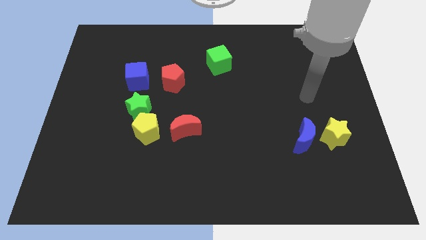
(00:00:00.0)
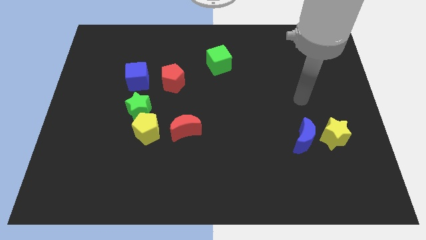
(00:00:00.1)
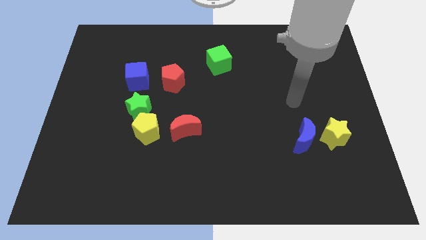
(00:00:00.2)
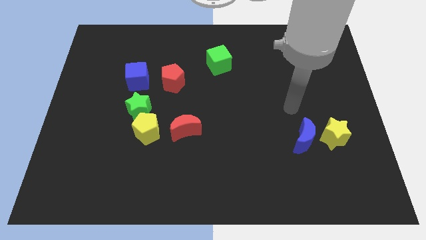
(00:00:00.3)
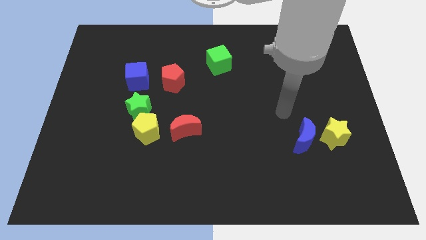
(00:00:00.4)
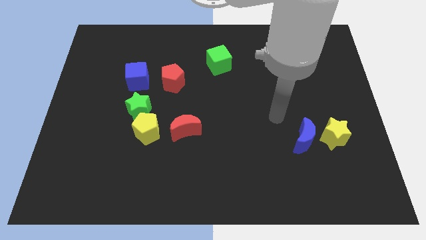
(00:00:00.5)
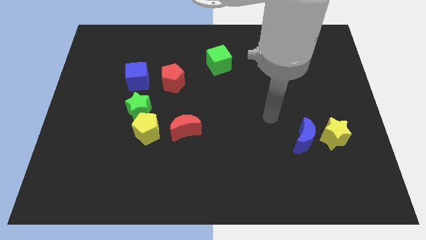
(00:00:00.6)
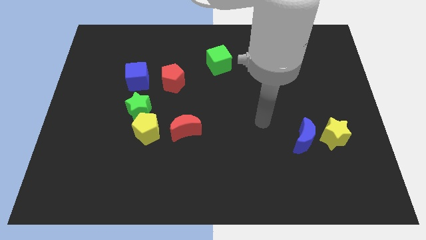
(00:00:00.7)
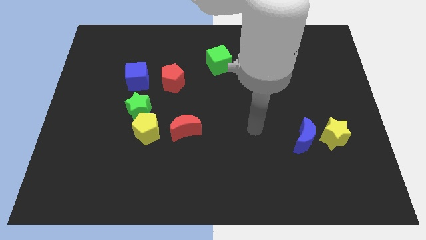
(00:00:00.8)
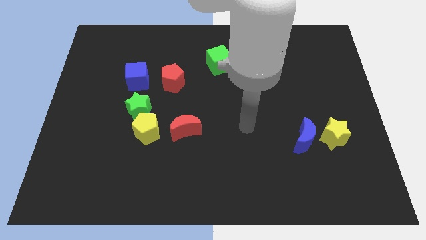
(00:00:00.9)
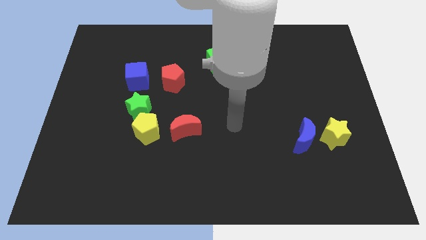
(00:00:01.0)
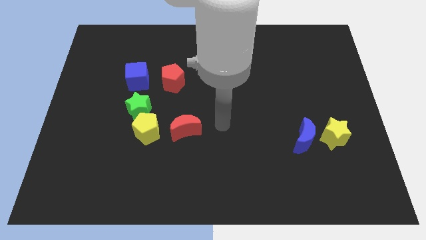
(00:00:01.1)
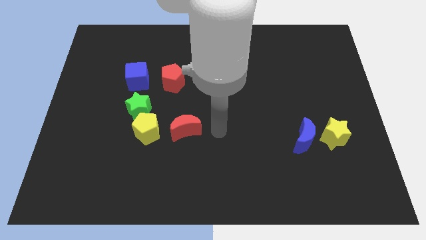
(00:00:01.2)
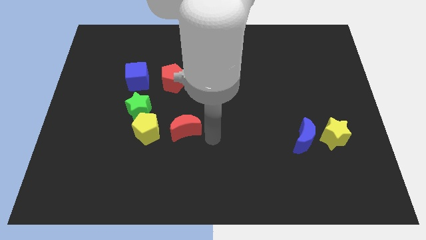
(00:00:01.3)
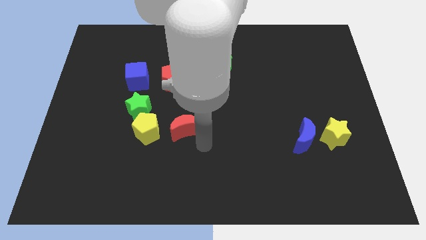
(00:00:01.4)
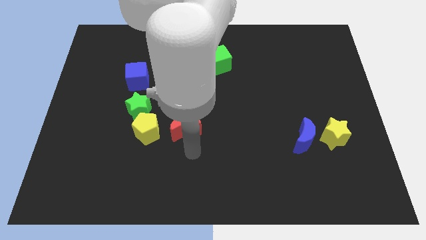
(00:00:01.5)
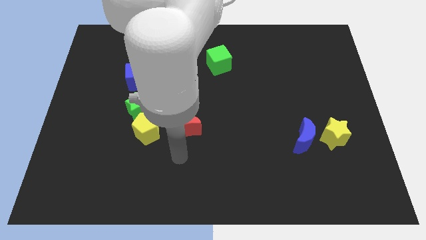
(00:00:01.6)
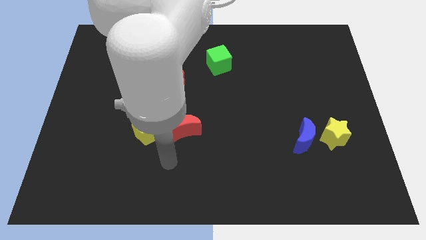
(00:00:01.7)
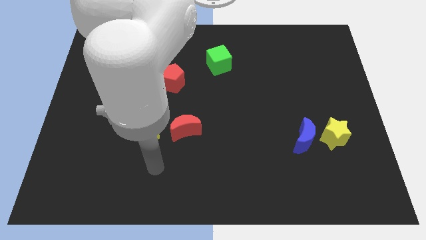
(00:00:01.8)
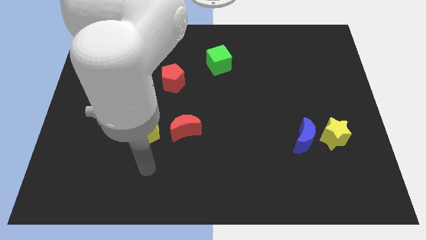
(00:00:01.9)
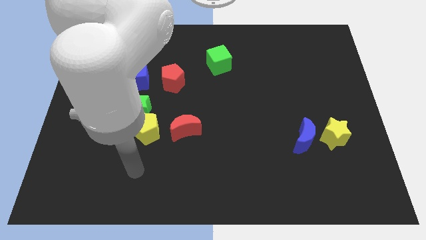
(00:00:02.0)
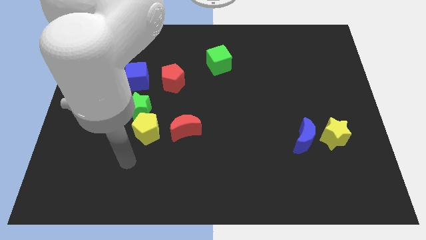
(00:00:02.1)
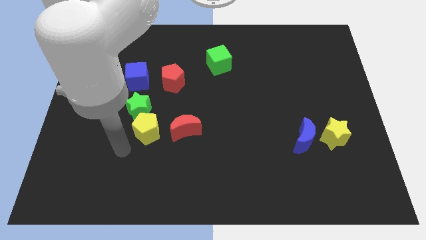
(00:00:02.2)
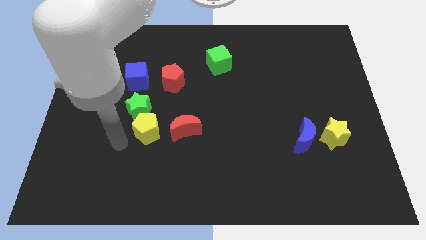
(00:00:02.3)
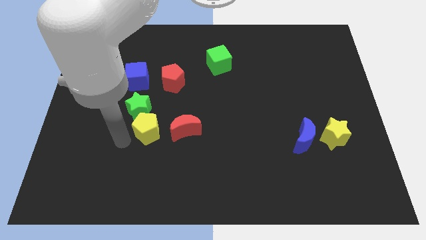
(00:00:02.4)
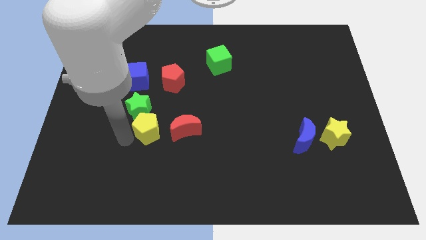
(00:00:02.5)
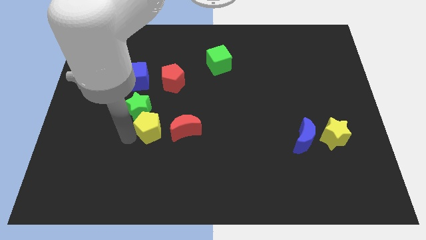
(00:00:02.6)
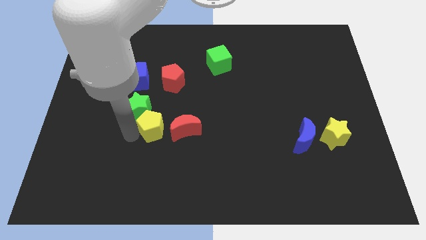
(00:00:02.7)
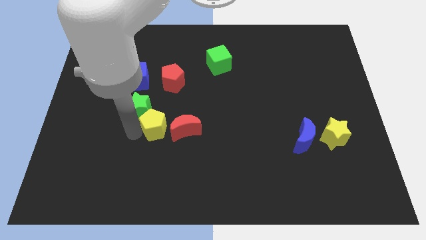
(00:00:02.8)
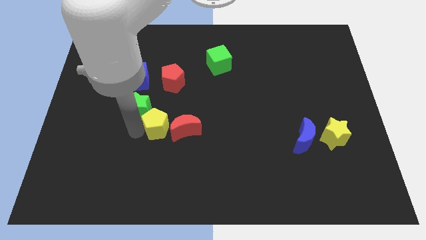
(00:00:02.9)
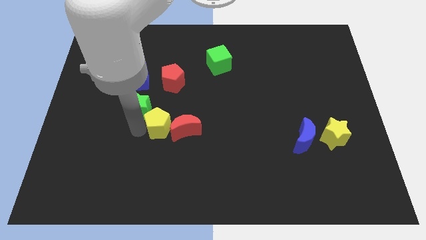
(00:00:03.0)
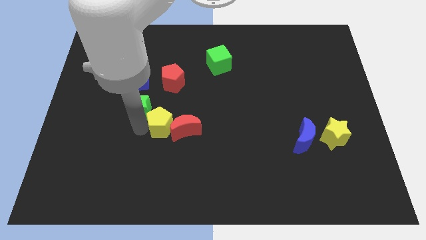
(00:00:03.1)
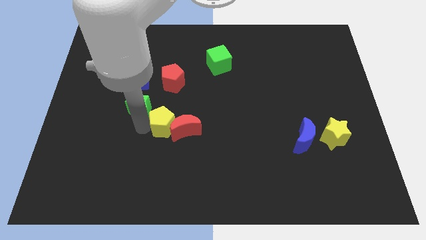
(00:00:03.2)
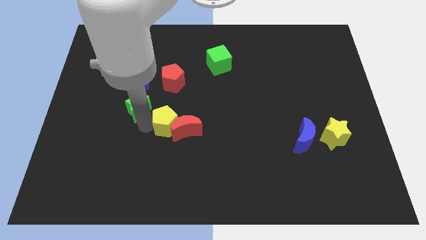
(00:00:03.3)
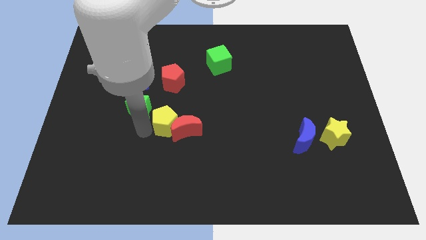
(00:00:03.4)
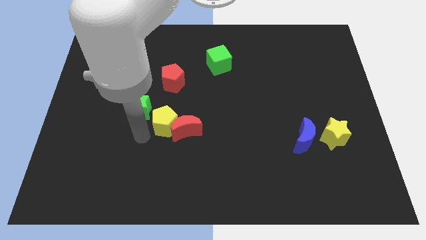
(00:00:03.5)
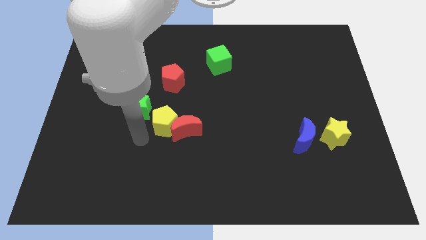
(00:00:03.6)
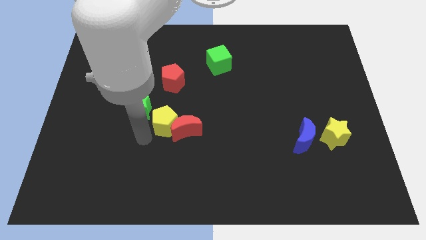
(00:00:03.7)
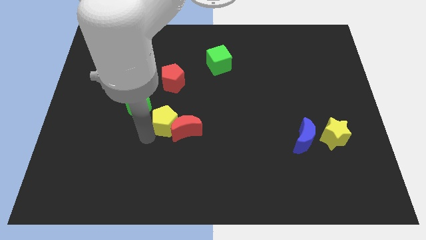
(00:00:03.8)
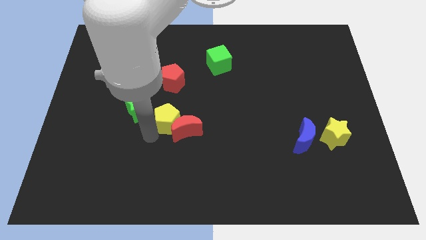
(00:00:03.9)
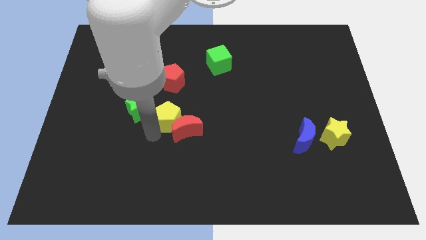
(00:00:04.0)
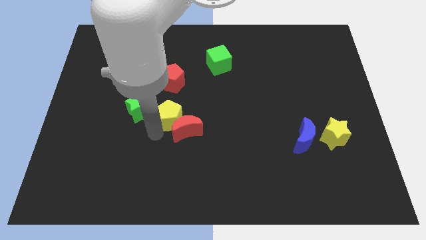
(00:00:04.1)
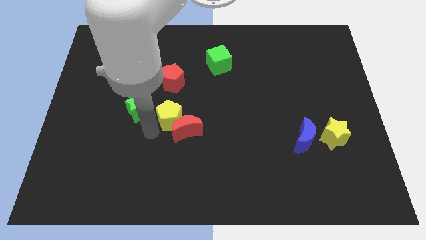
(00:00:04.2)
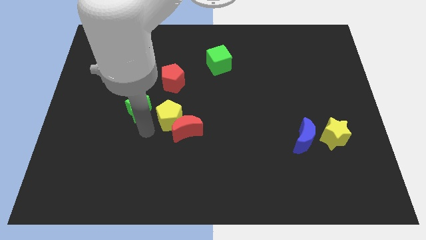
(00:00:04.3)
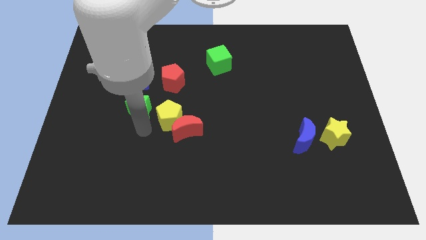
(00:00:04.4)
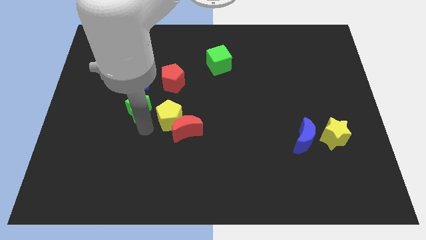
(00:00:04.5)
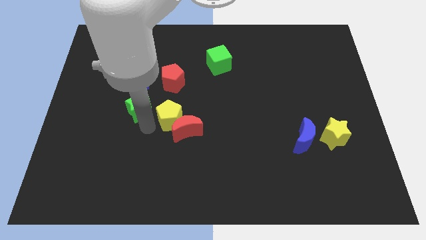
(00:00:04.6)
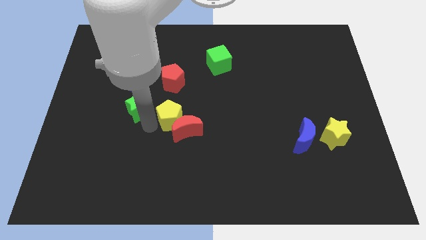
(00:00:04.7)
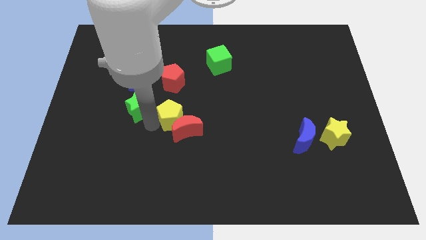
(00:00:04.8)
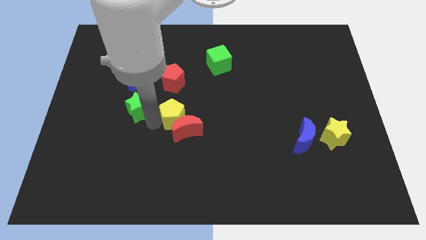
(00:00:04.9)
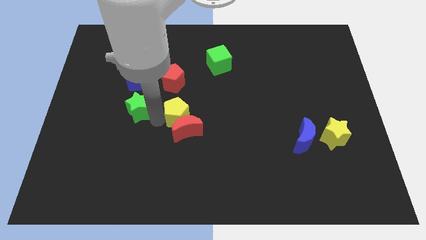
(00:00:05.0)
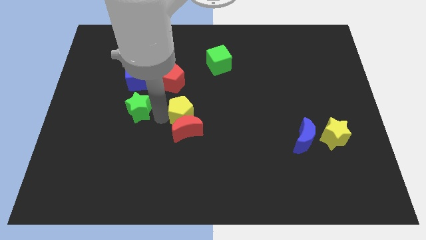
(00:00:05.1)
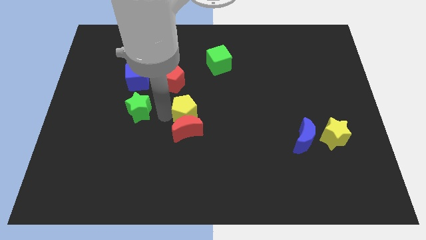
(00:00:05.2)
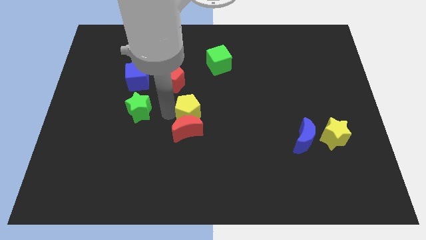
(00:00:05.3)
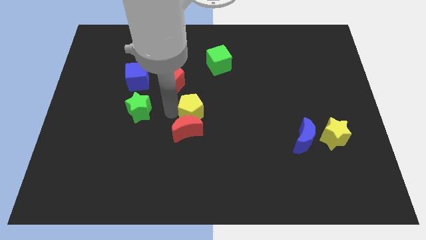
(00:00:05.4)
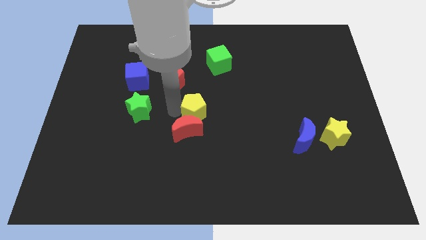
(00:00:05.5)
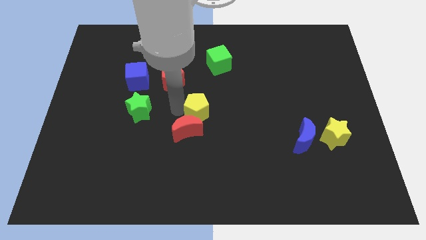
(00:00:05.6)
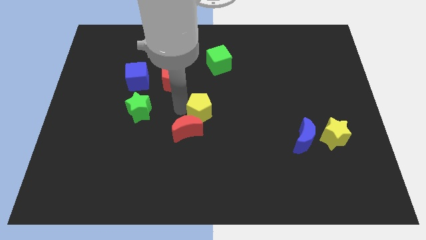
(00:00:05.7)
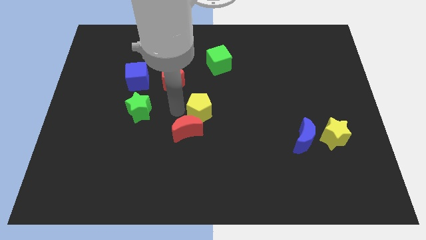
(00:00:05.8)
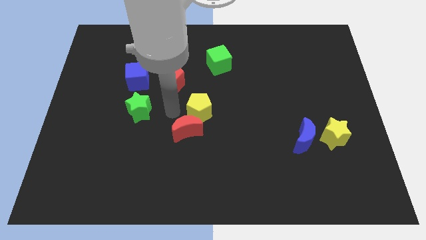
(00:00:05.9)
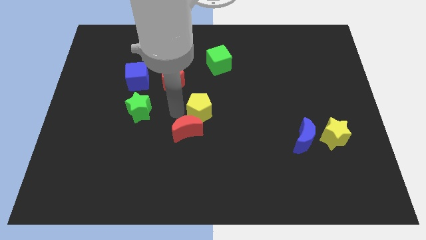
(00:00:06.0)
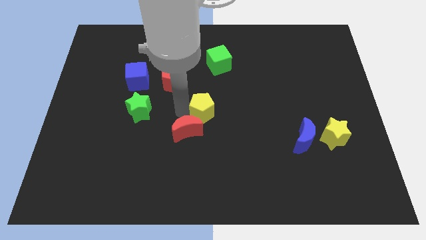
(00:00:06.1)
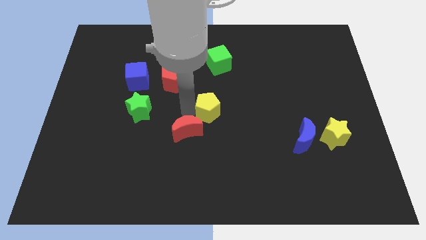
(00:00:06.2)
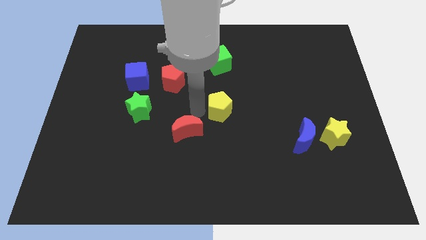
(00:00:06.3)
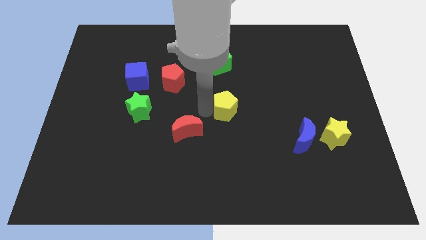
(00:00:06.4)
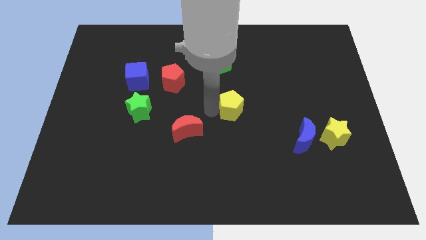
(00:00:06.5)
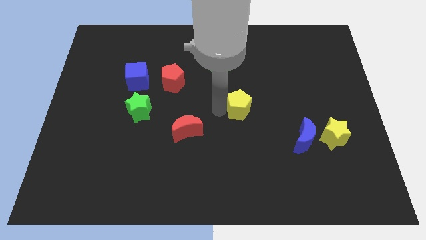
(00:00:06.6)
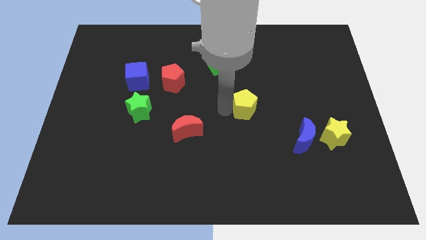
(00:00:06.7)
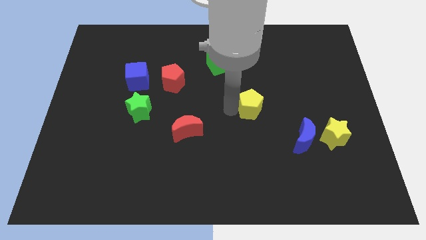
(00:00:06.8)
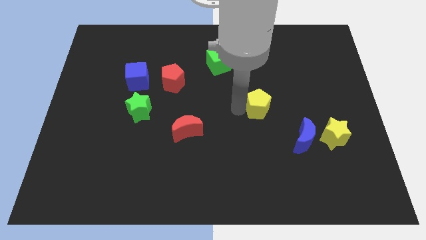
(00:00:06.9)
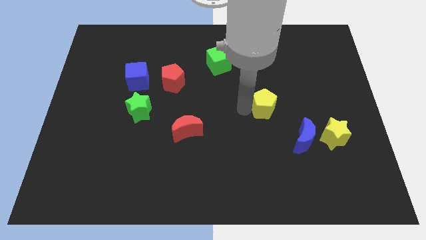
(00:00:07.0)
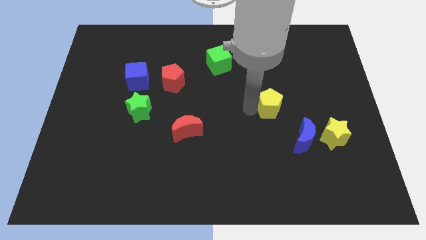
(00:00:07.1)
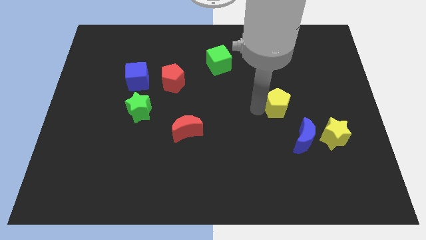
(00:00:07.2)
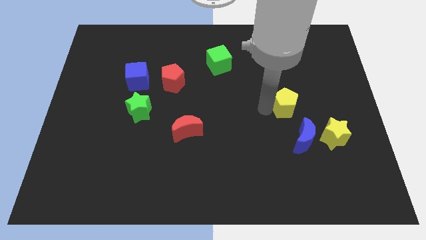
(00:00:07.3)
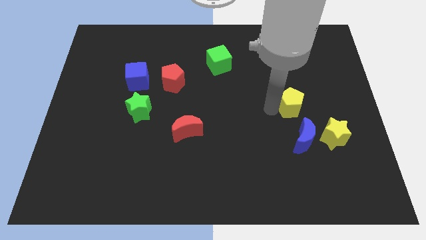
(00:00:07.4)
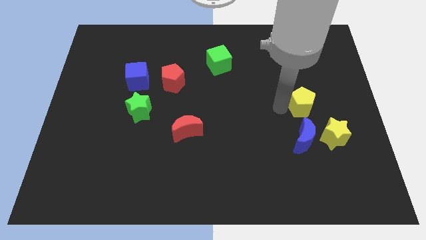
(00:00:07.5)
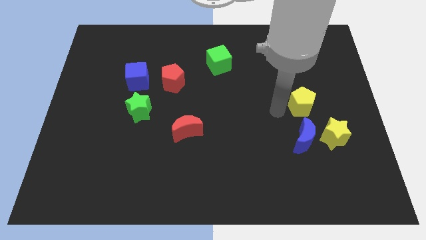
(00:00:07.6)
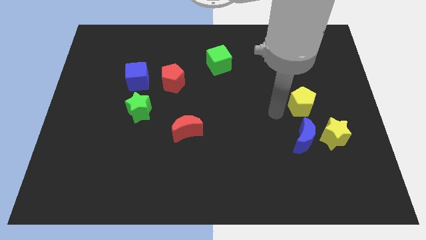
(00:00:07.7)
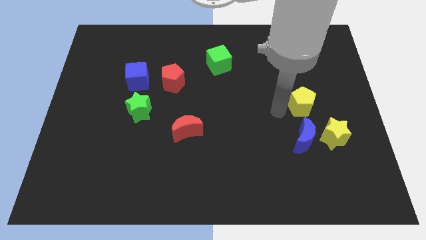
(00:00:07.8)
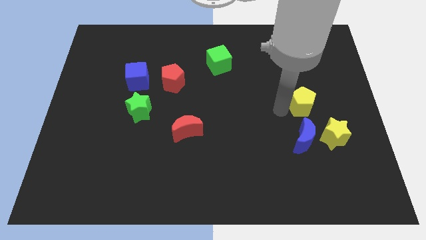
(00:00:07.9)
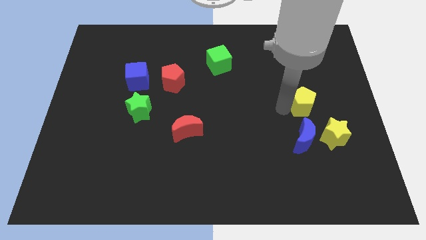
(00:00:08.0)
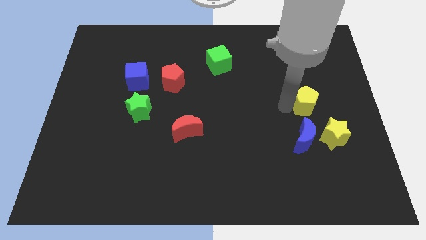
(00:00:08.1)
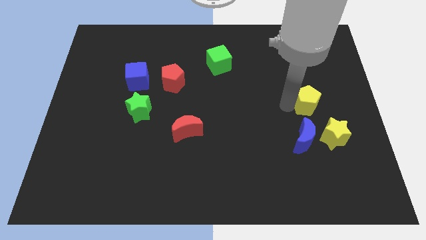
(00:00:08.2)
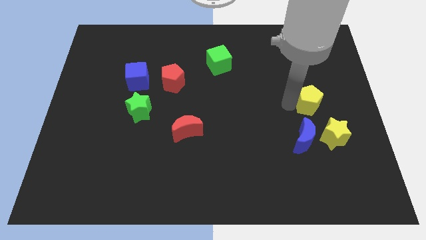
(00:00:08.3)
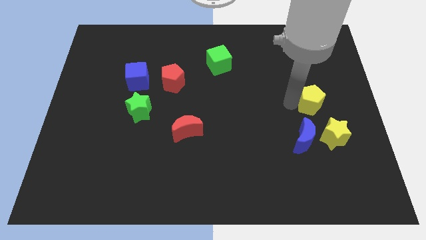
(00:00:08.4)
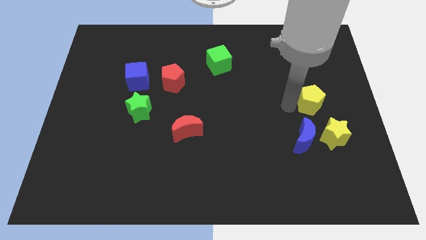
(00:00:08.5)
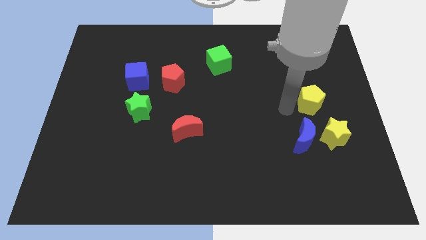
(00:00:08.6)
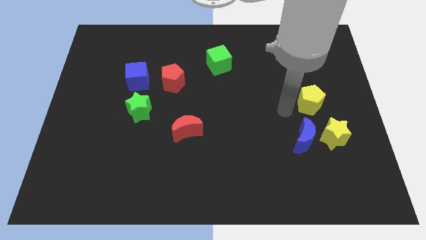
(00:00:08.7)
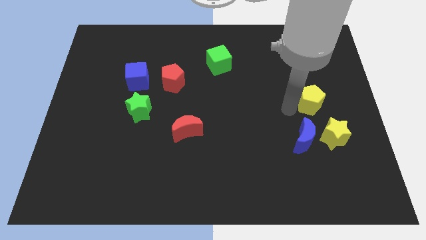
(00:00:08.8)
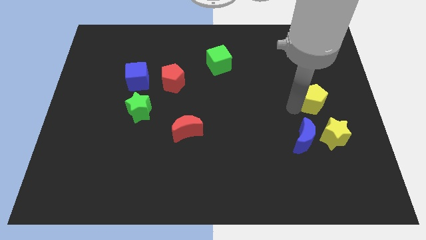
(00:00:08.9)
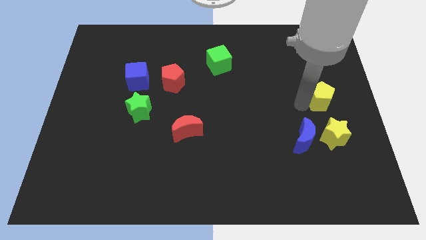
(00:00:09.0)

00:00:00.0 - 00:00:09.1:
push the yellow pentagon to the right side of the board
